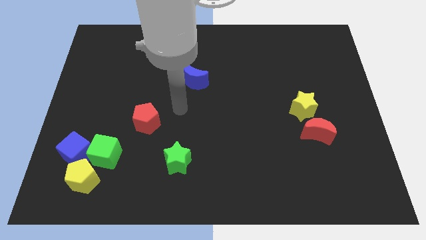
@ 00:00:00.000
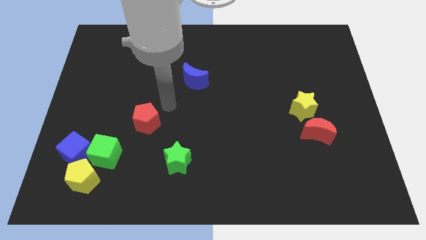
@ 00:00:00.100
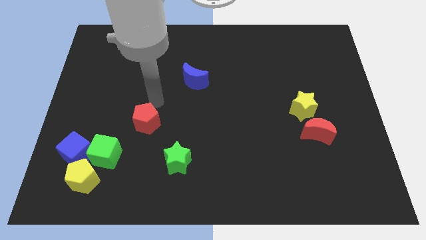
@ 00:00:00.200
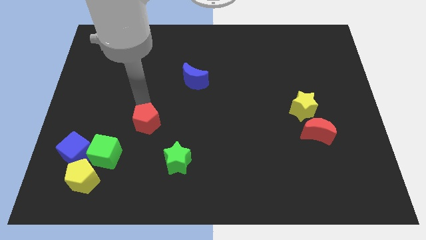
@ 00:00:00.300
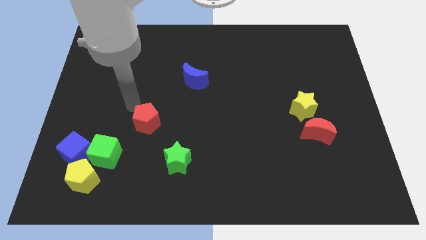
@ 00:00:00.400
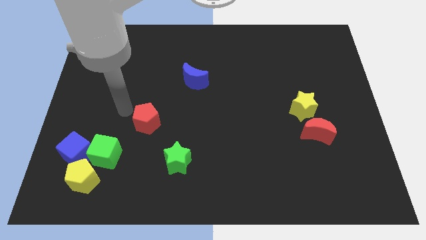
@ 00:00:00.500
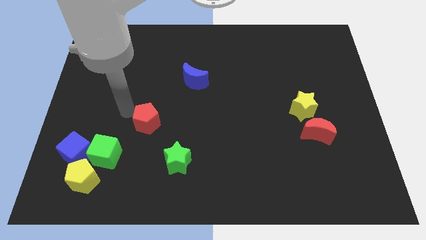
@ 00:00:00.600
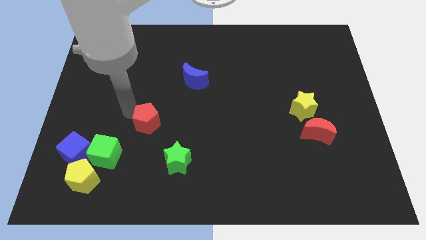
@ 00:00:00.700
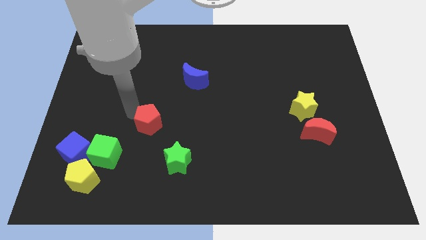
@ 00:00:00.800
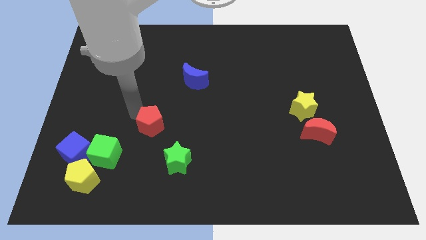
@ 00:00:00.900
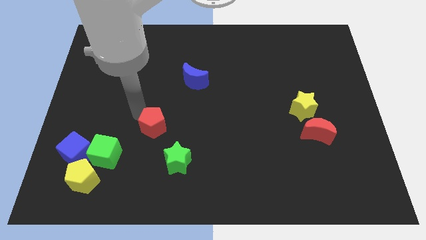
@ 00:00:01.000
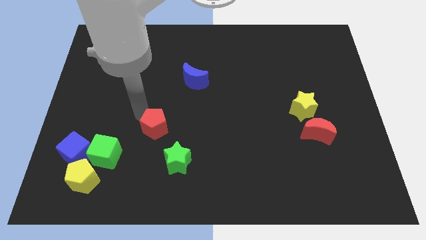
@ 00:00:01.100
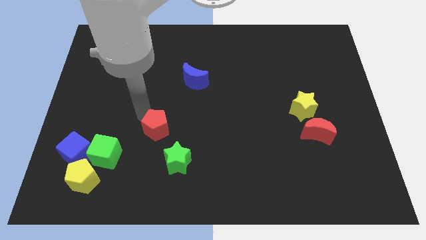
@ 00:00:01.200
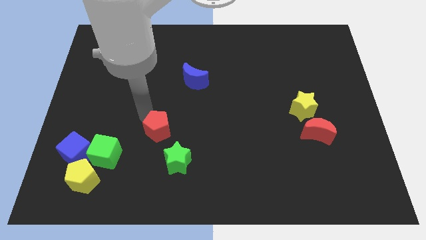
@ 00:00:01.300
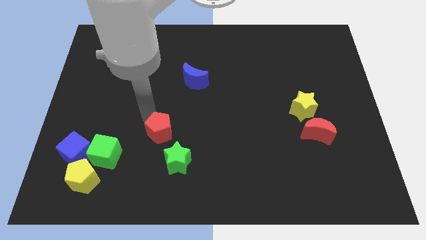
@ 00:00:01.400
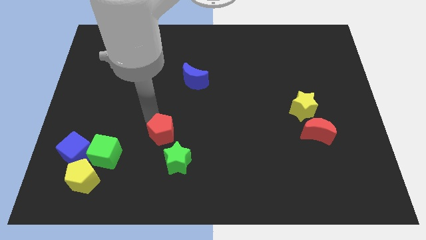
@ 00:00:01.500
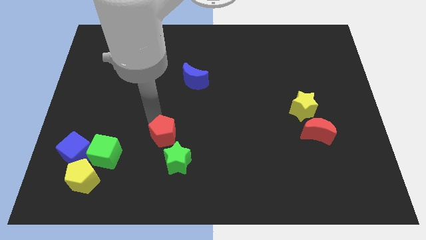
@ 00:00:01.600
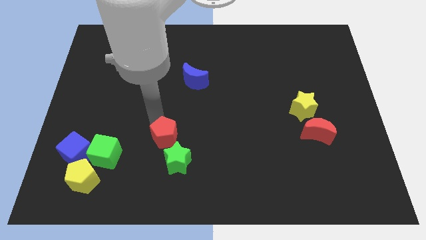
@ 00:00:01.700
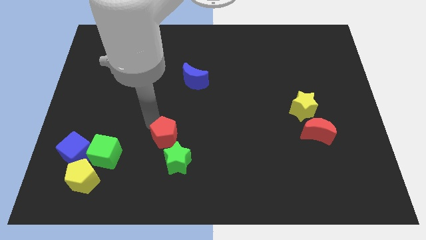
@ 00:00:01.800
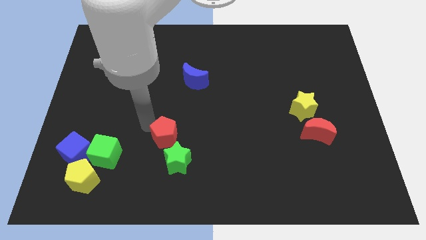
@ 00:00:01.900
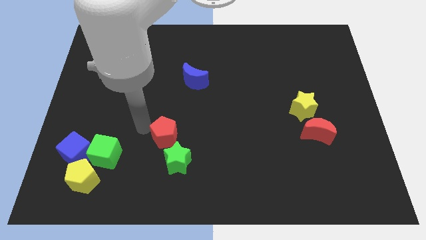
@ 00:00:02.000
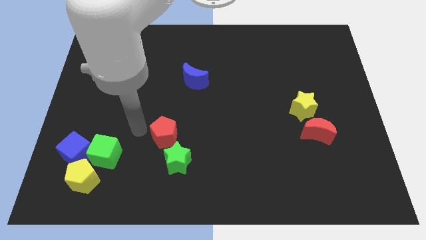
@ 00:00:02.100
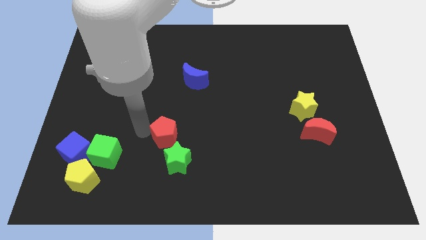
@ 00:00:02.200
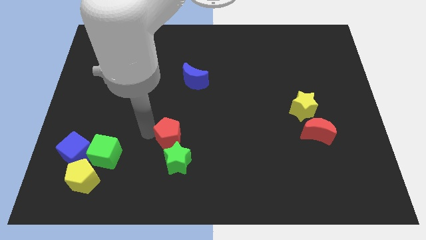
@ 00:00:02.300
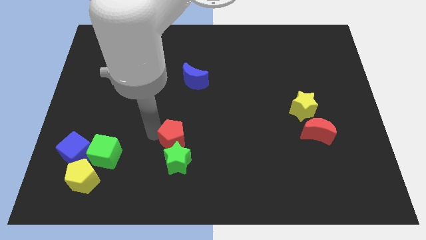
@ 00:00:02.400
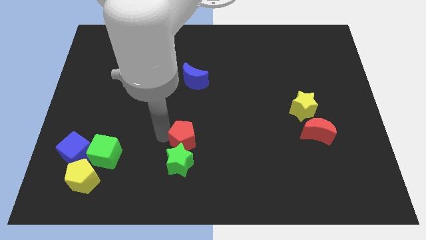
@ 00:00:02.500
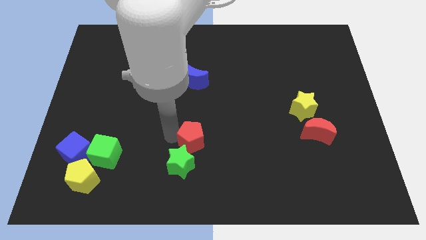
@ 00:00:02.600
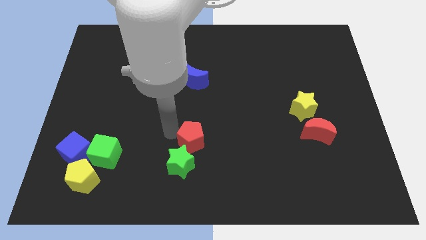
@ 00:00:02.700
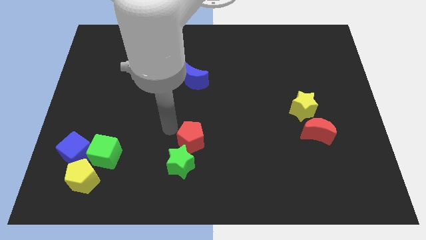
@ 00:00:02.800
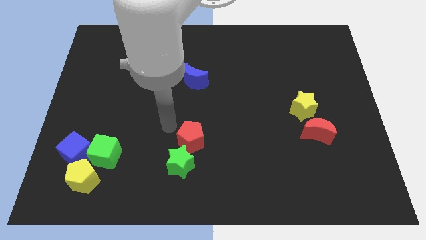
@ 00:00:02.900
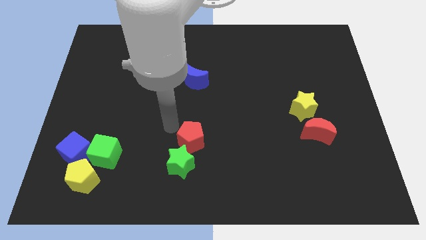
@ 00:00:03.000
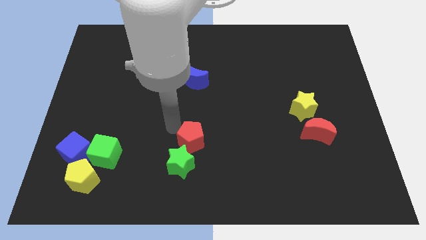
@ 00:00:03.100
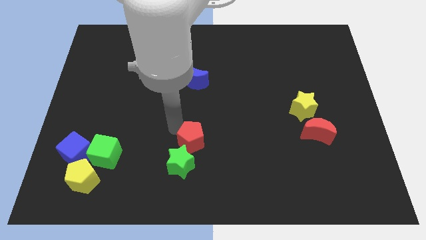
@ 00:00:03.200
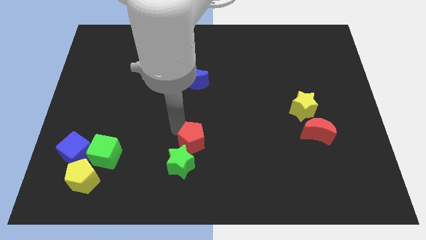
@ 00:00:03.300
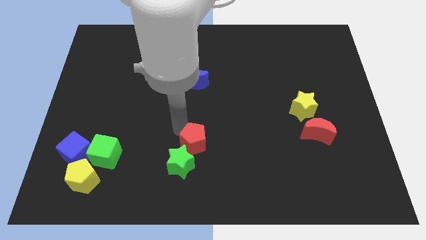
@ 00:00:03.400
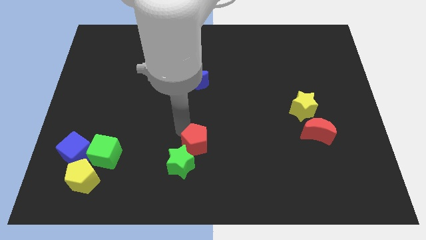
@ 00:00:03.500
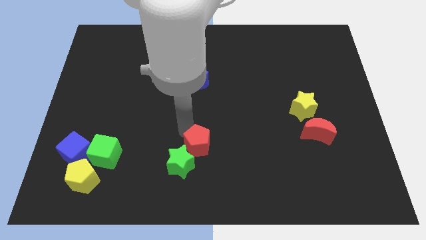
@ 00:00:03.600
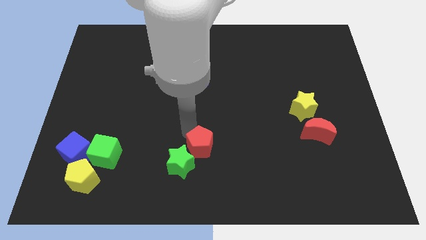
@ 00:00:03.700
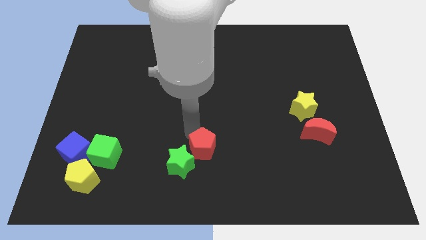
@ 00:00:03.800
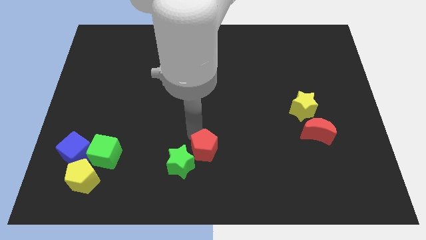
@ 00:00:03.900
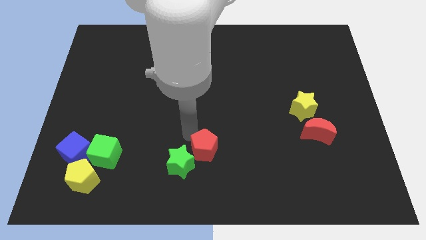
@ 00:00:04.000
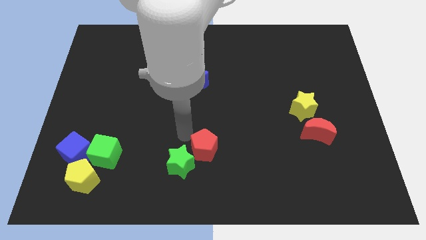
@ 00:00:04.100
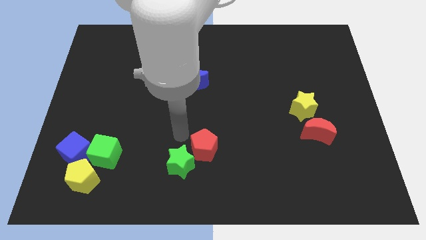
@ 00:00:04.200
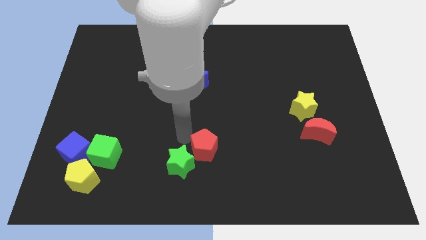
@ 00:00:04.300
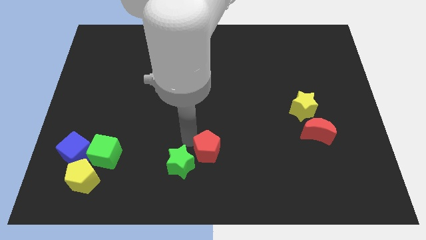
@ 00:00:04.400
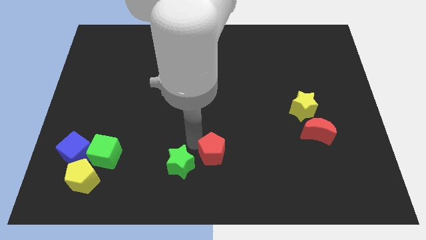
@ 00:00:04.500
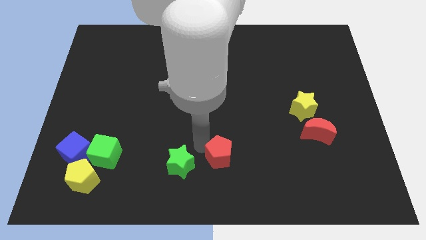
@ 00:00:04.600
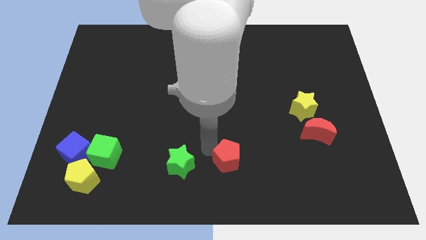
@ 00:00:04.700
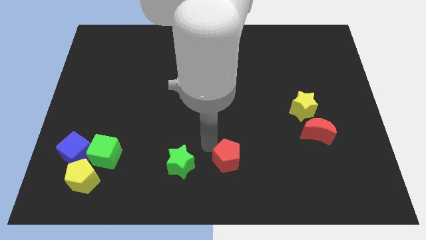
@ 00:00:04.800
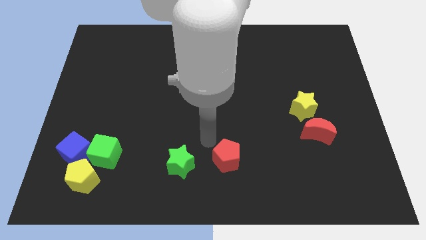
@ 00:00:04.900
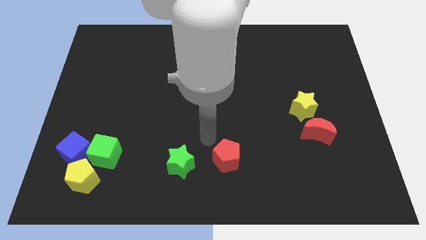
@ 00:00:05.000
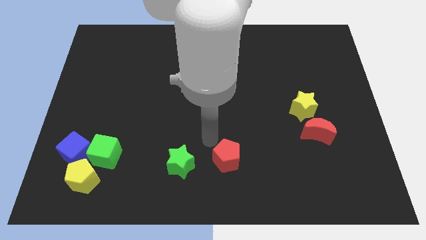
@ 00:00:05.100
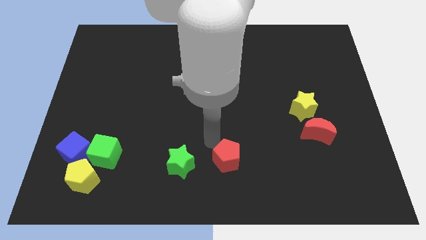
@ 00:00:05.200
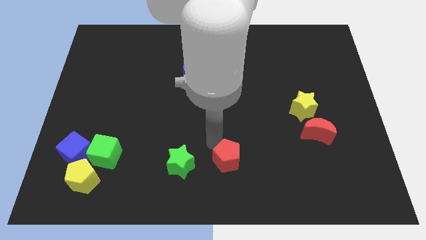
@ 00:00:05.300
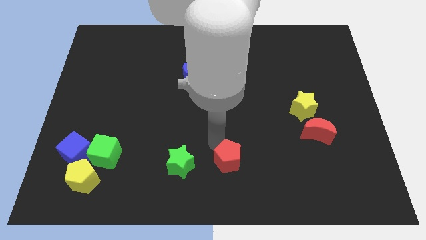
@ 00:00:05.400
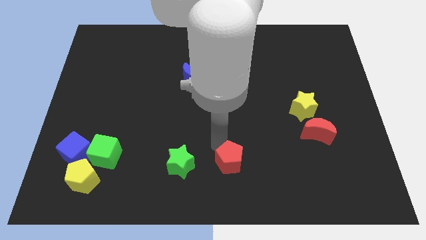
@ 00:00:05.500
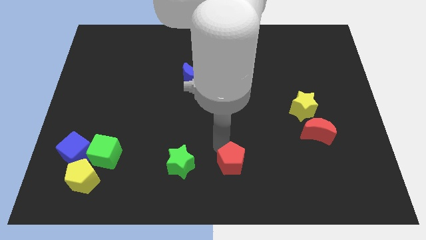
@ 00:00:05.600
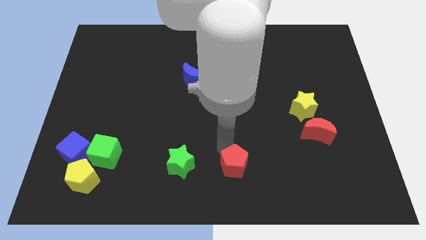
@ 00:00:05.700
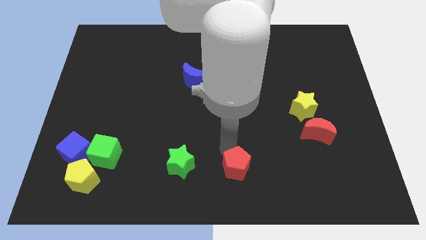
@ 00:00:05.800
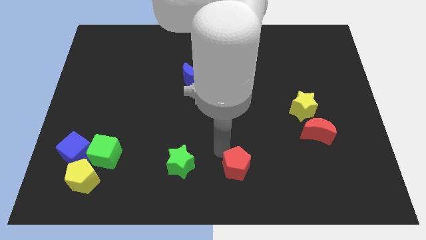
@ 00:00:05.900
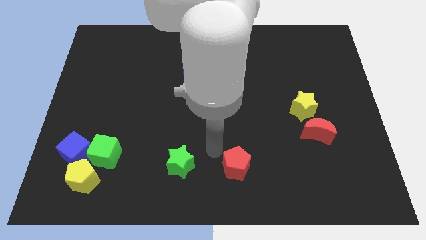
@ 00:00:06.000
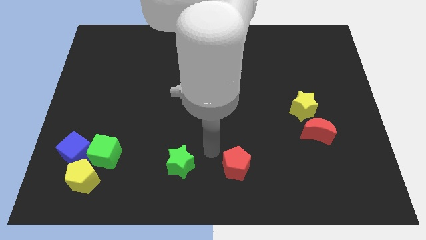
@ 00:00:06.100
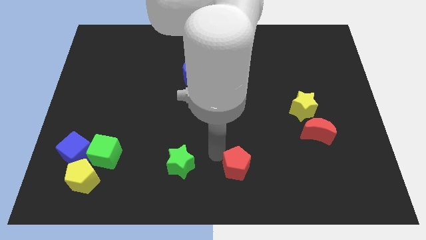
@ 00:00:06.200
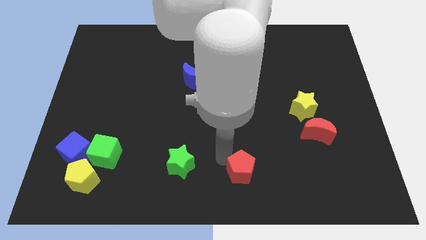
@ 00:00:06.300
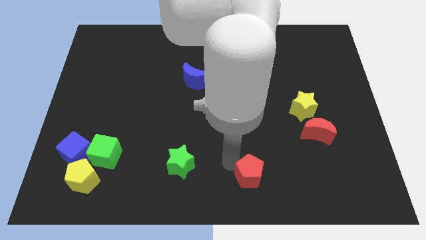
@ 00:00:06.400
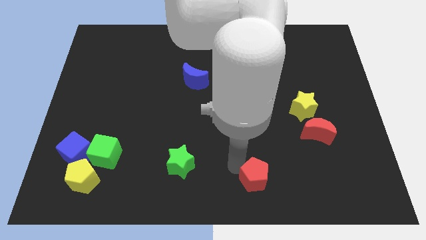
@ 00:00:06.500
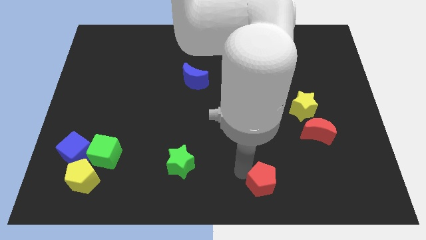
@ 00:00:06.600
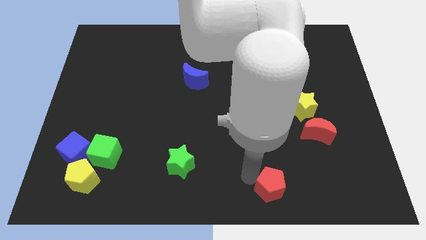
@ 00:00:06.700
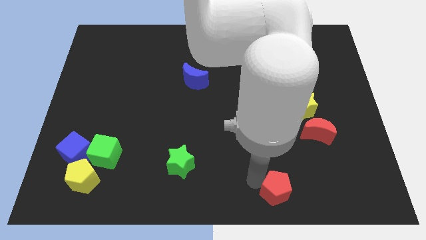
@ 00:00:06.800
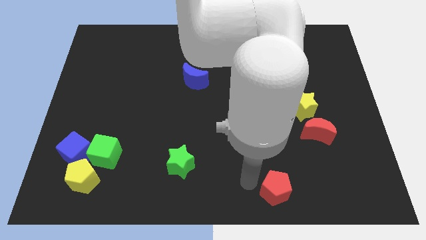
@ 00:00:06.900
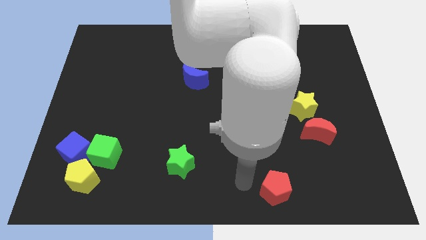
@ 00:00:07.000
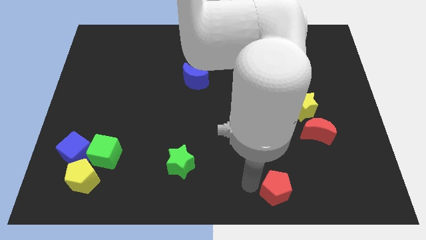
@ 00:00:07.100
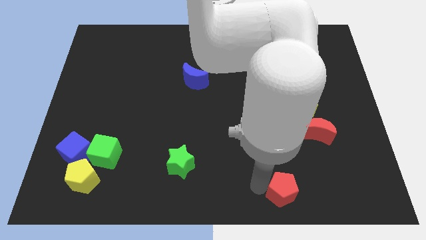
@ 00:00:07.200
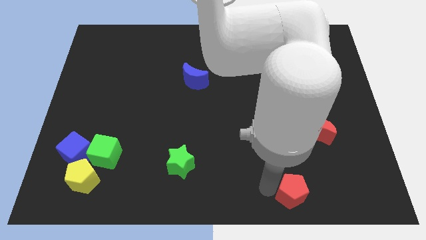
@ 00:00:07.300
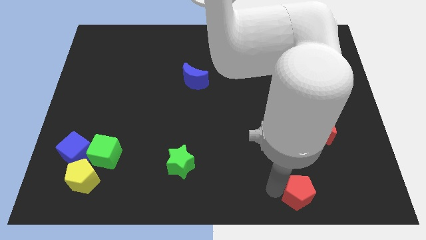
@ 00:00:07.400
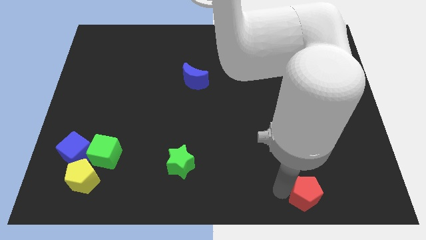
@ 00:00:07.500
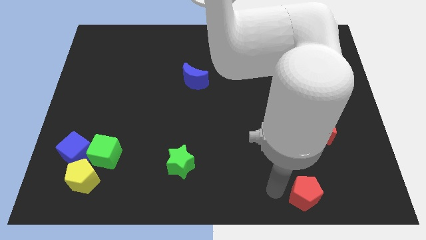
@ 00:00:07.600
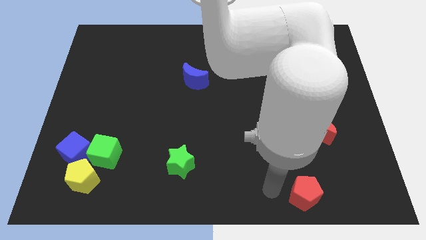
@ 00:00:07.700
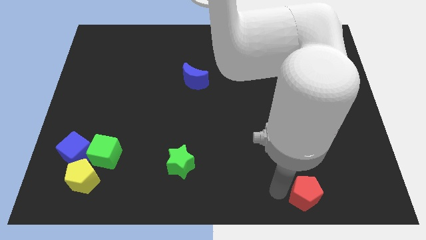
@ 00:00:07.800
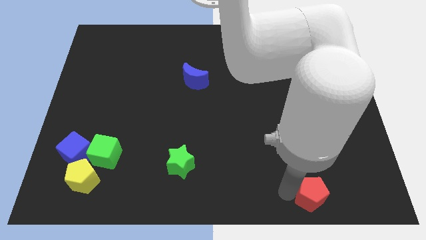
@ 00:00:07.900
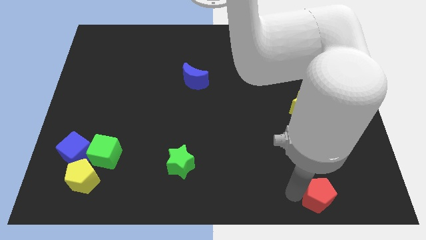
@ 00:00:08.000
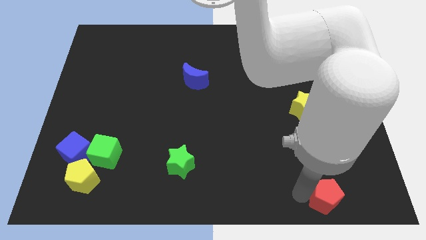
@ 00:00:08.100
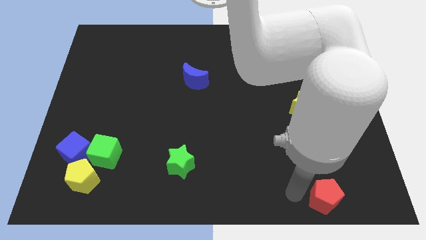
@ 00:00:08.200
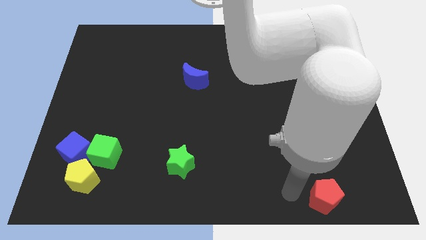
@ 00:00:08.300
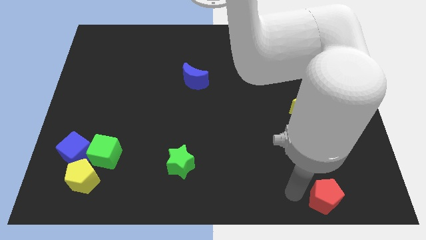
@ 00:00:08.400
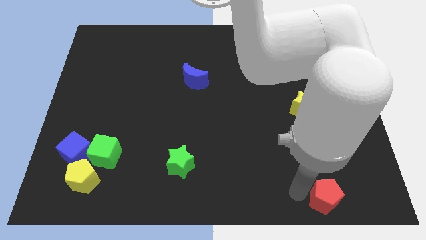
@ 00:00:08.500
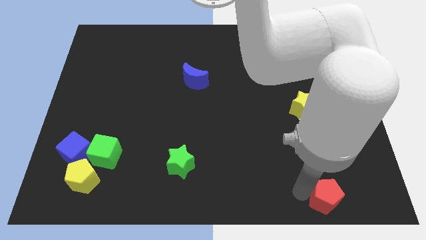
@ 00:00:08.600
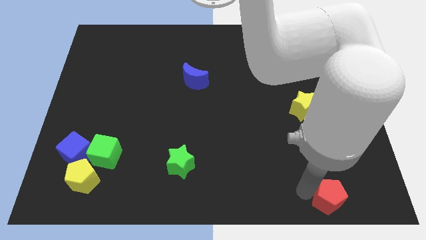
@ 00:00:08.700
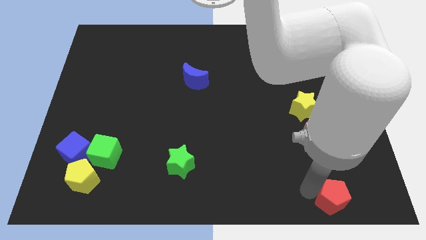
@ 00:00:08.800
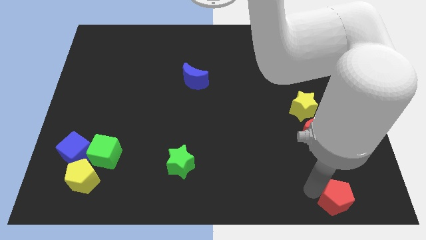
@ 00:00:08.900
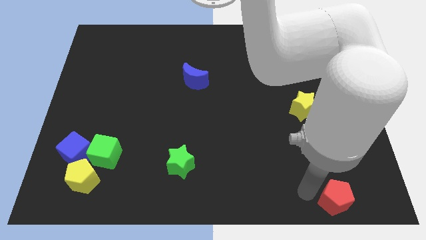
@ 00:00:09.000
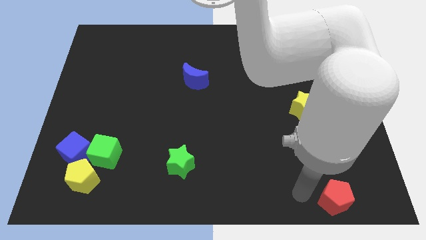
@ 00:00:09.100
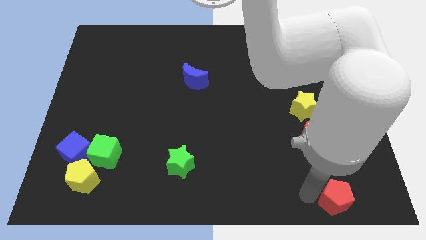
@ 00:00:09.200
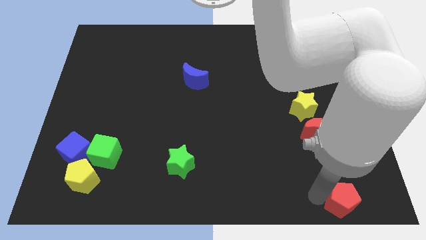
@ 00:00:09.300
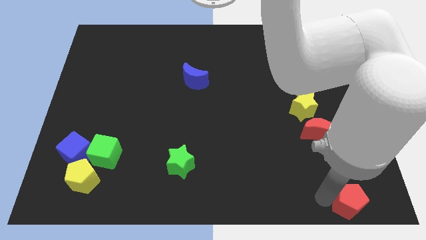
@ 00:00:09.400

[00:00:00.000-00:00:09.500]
slide the red pentagon to the lower right corner
